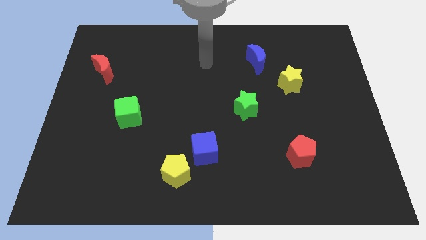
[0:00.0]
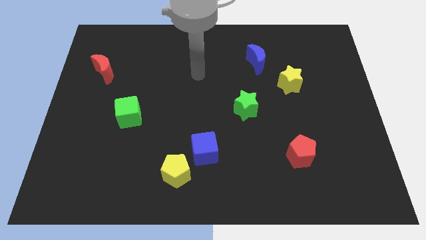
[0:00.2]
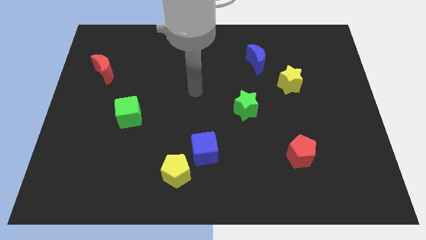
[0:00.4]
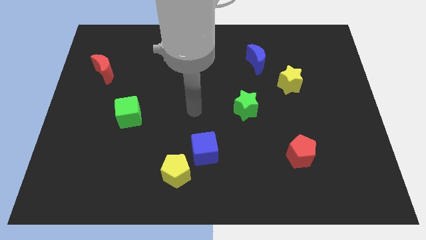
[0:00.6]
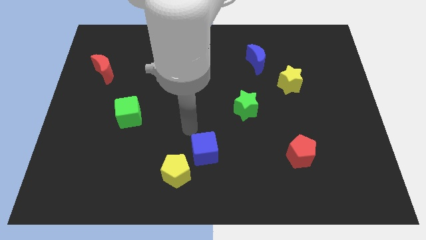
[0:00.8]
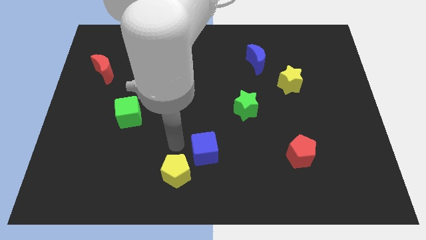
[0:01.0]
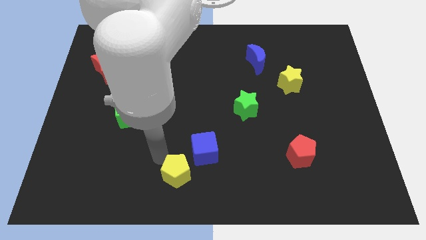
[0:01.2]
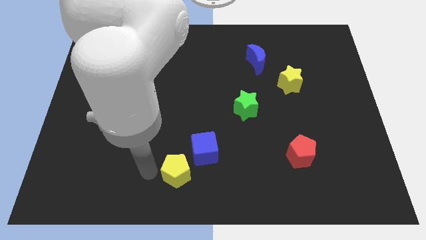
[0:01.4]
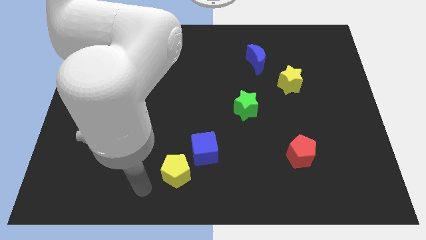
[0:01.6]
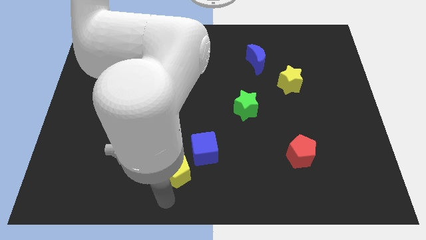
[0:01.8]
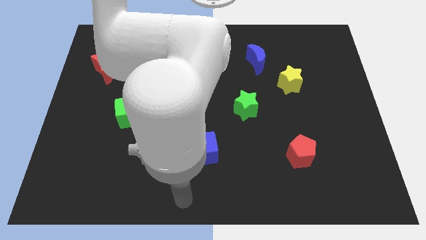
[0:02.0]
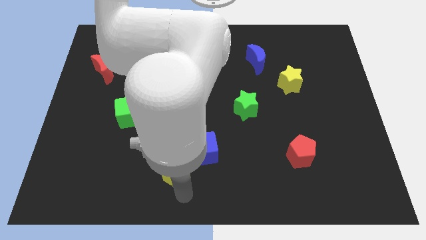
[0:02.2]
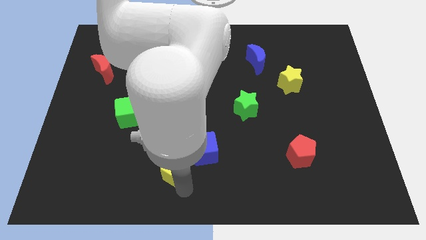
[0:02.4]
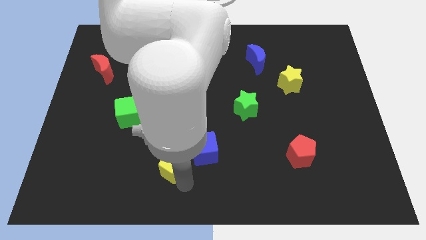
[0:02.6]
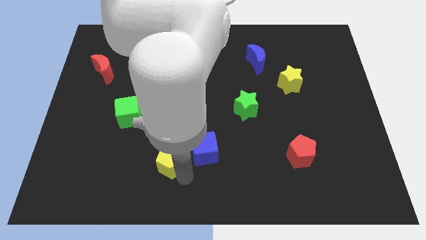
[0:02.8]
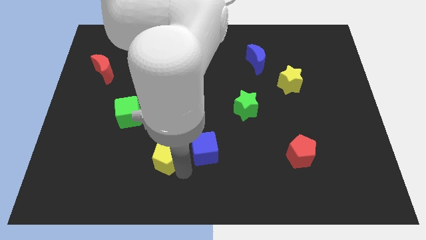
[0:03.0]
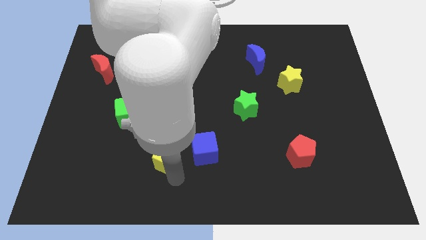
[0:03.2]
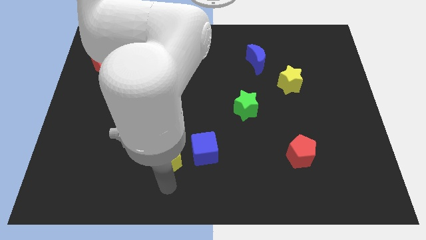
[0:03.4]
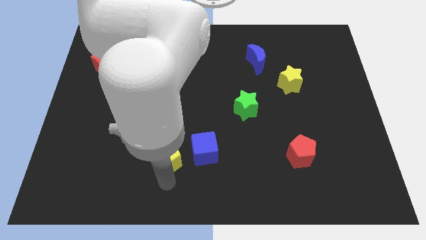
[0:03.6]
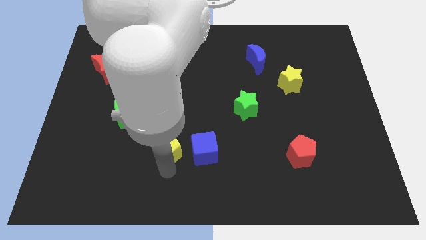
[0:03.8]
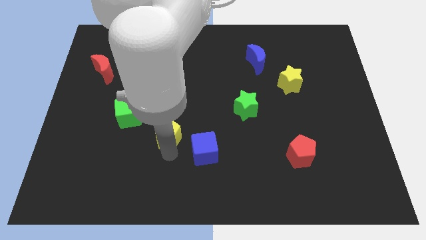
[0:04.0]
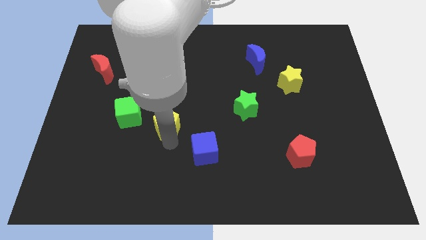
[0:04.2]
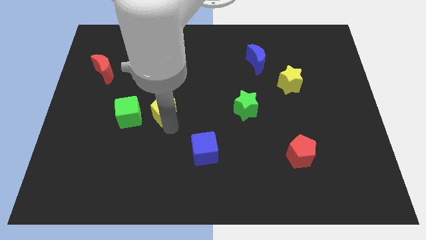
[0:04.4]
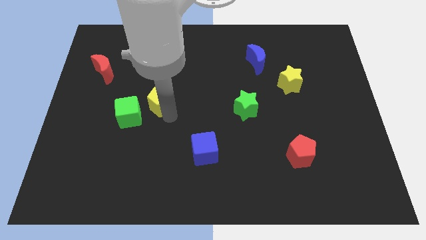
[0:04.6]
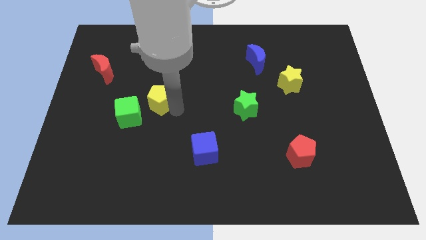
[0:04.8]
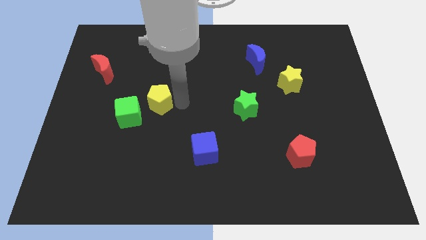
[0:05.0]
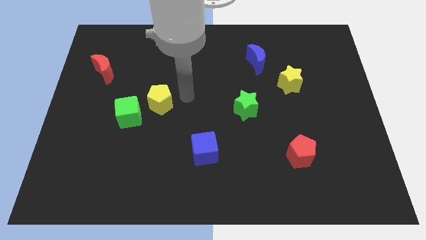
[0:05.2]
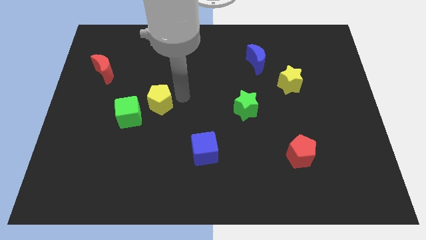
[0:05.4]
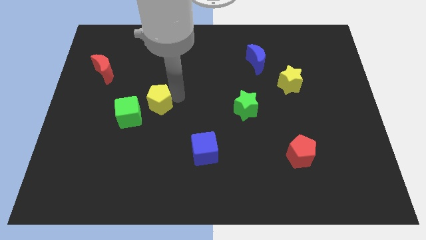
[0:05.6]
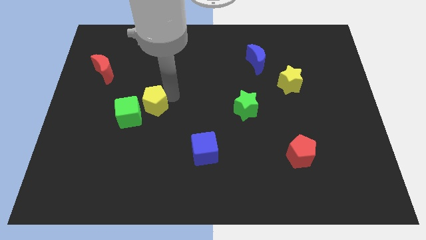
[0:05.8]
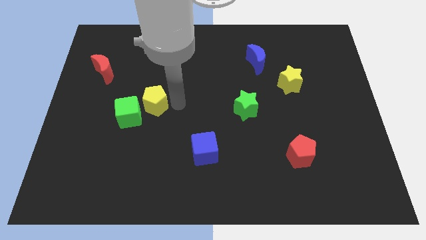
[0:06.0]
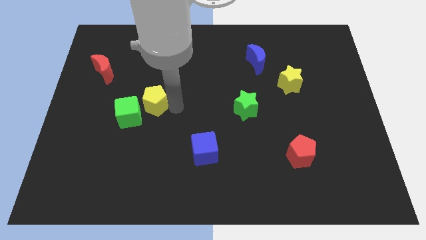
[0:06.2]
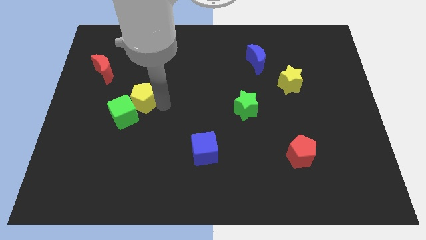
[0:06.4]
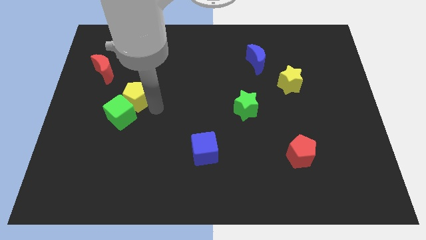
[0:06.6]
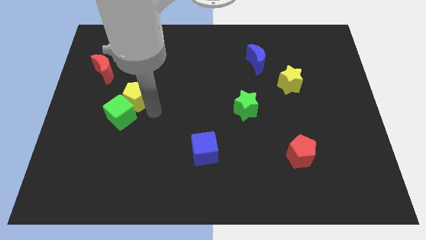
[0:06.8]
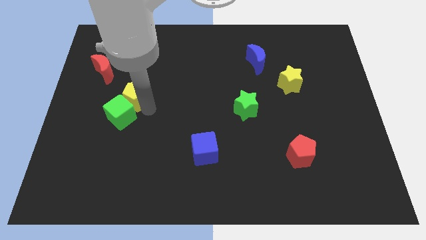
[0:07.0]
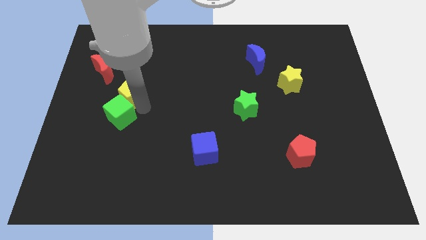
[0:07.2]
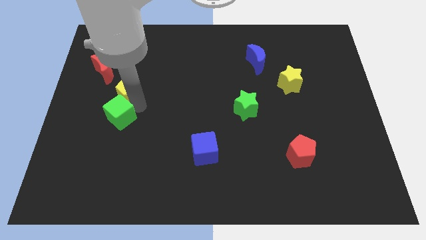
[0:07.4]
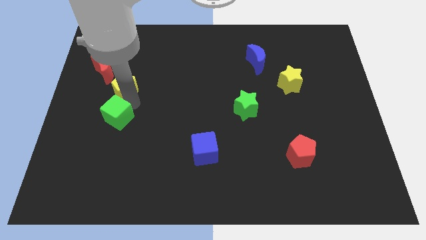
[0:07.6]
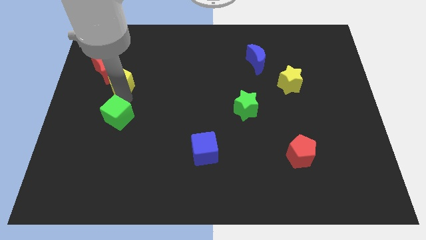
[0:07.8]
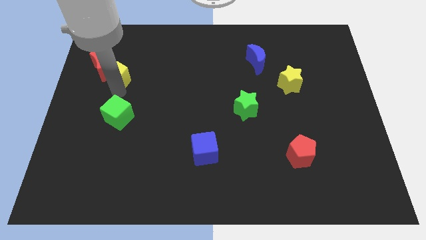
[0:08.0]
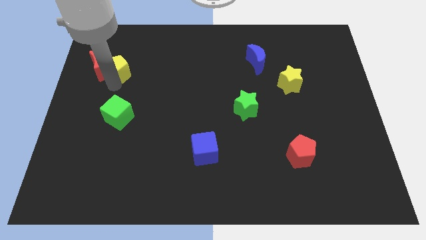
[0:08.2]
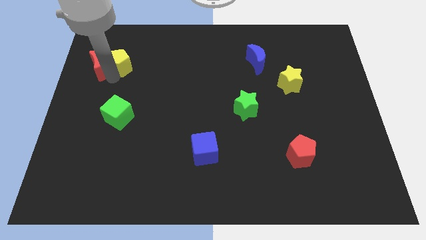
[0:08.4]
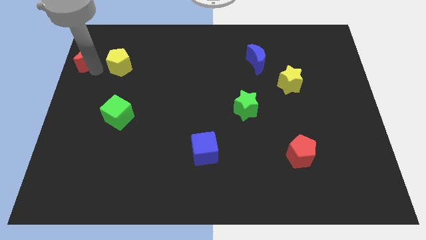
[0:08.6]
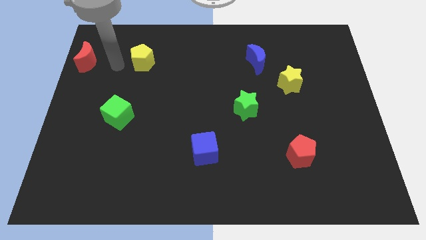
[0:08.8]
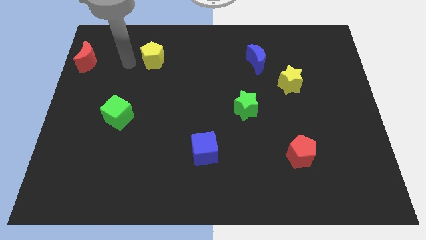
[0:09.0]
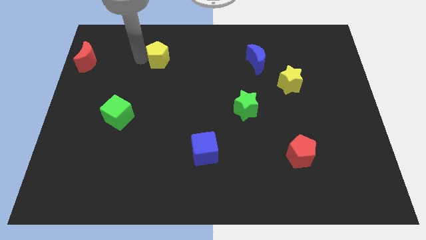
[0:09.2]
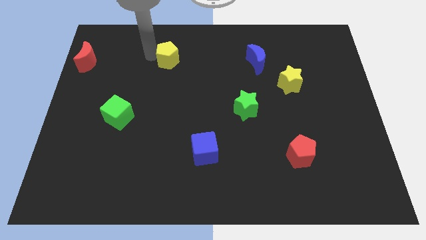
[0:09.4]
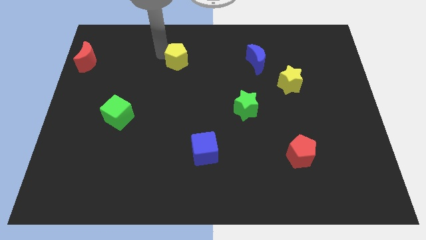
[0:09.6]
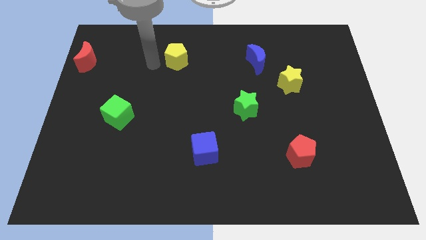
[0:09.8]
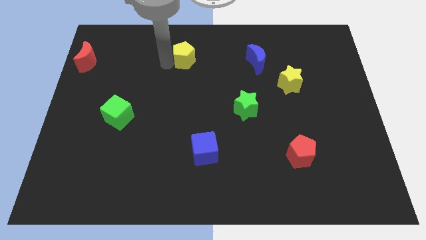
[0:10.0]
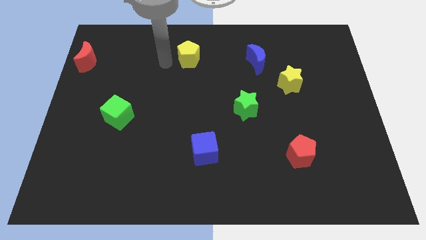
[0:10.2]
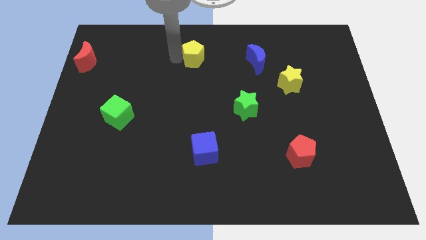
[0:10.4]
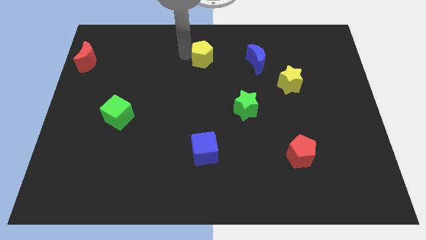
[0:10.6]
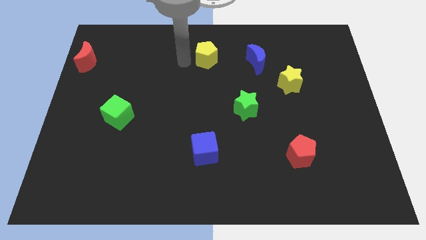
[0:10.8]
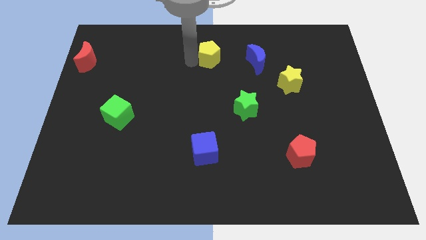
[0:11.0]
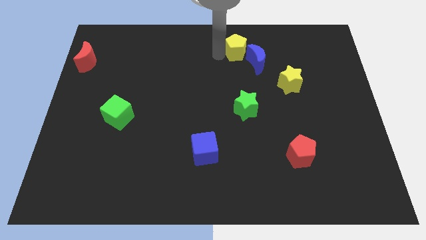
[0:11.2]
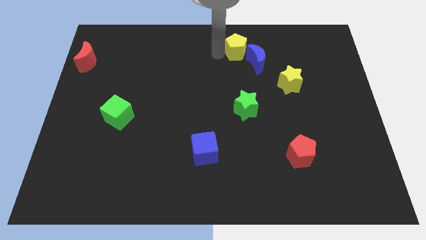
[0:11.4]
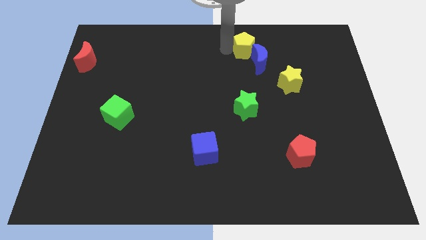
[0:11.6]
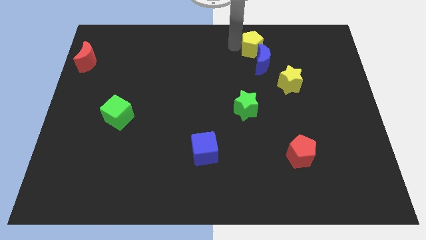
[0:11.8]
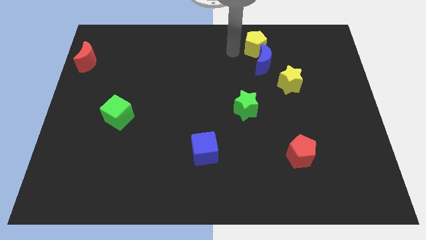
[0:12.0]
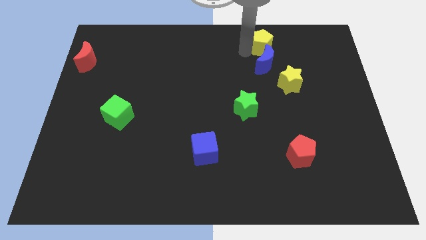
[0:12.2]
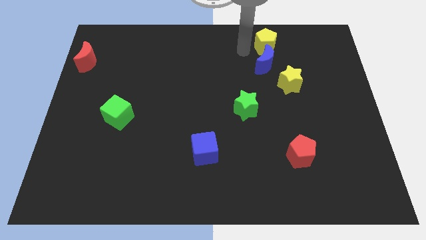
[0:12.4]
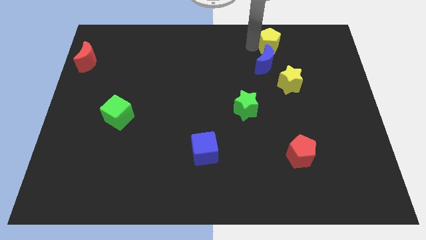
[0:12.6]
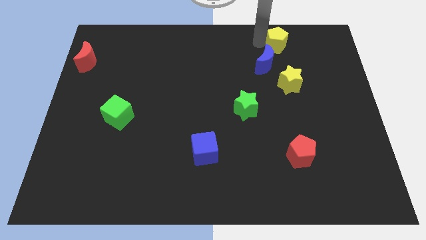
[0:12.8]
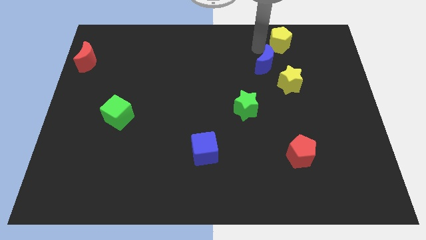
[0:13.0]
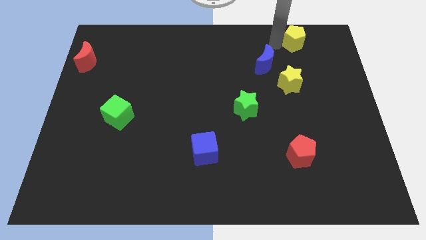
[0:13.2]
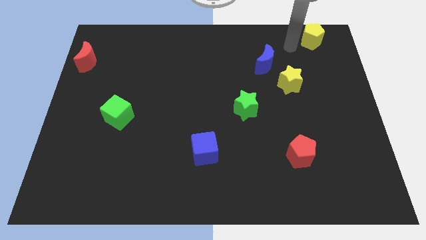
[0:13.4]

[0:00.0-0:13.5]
put the yellow pentagon to the top right corner
